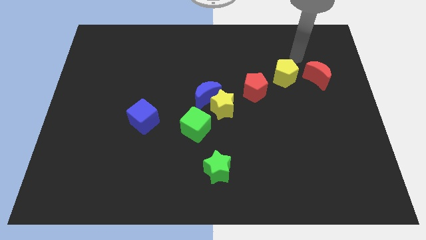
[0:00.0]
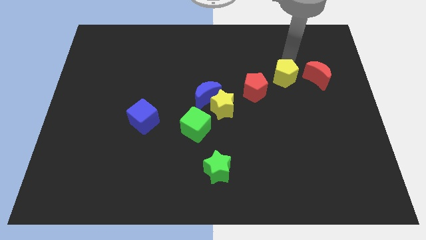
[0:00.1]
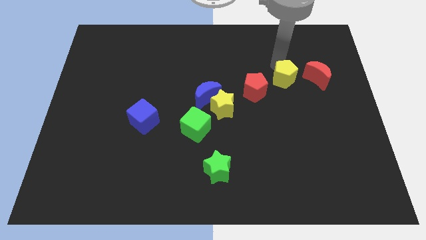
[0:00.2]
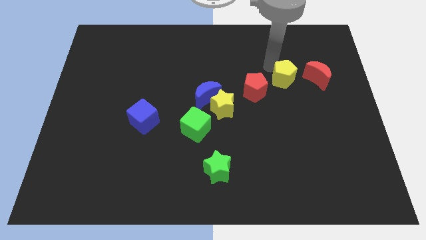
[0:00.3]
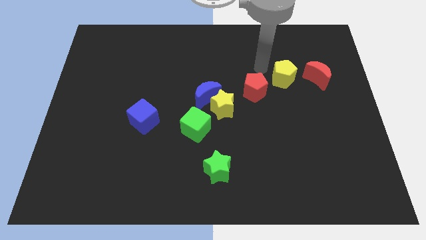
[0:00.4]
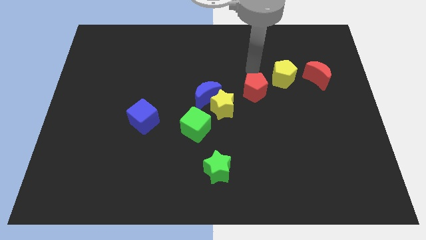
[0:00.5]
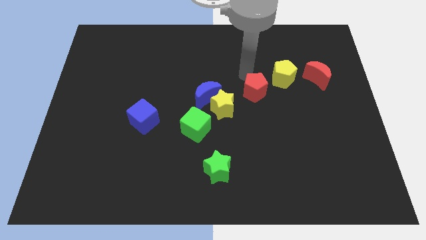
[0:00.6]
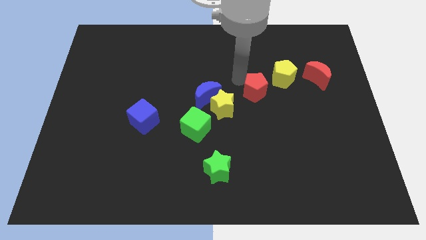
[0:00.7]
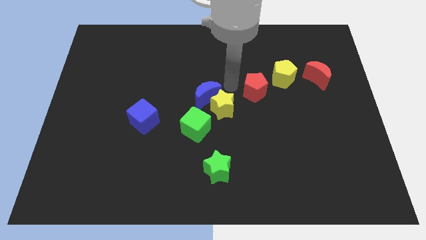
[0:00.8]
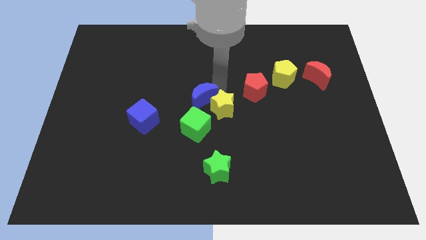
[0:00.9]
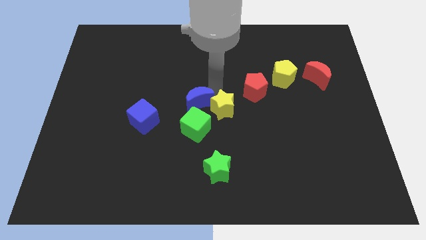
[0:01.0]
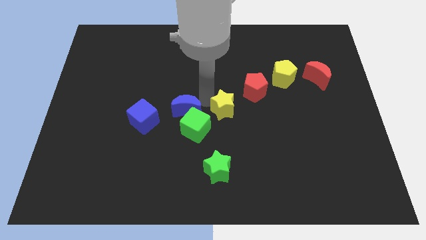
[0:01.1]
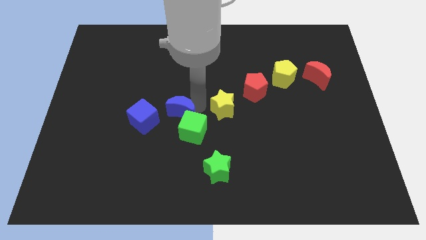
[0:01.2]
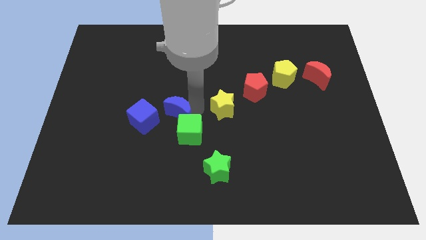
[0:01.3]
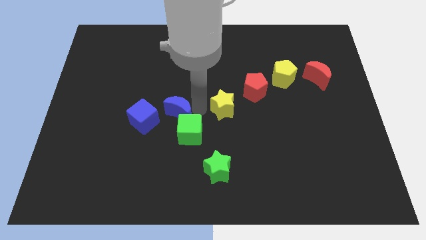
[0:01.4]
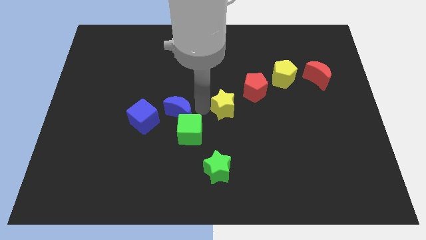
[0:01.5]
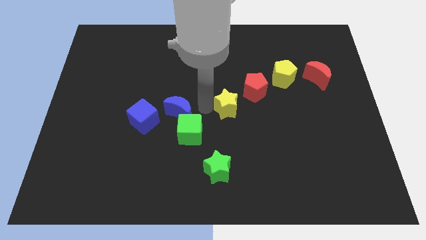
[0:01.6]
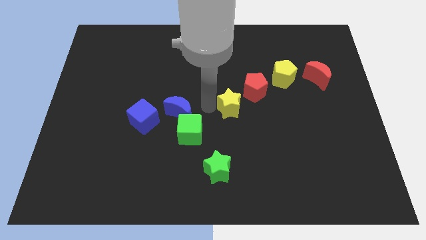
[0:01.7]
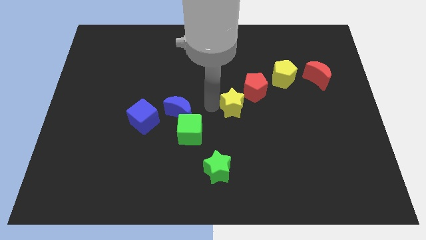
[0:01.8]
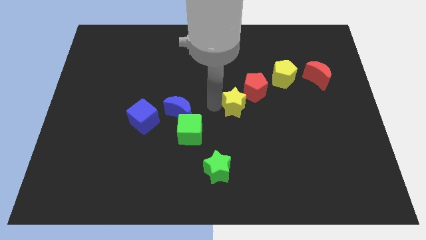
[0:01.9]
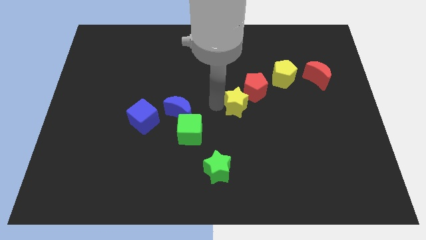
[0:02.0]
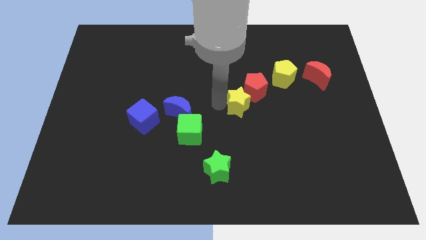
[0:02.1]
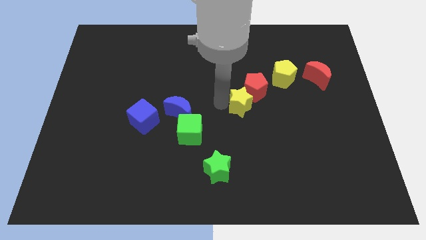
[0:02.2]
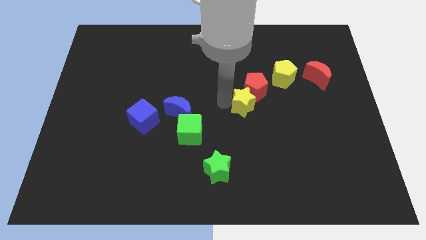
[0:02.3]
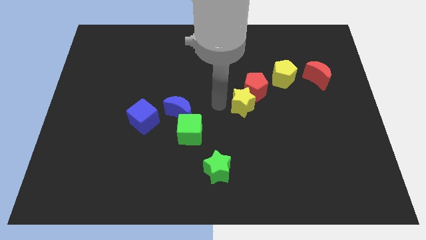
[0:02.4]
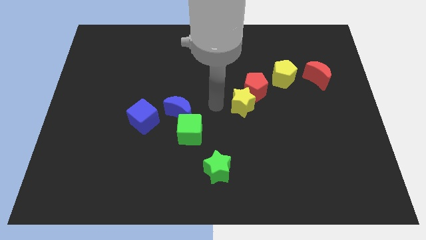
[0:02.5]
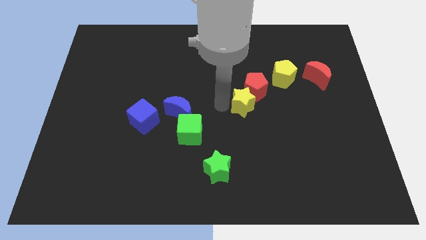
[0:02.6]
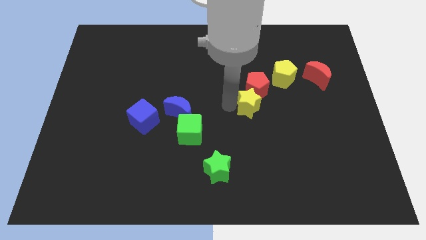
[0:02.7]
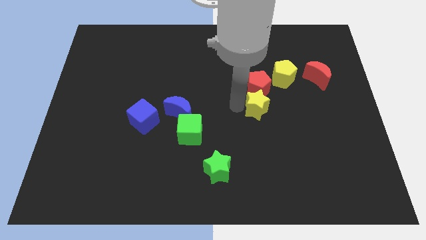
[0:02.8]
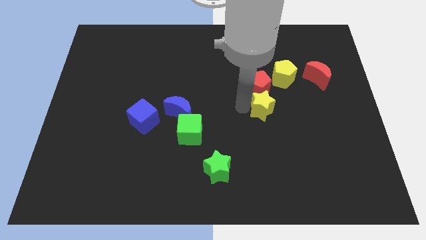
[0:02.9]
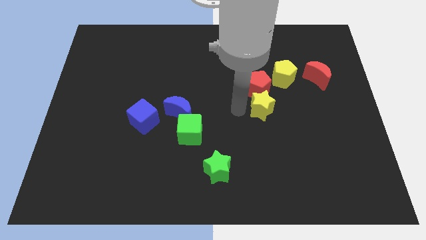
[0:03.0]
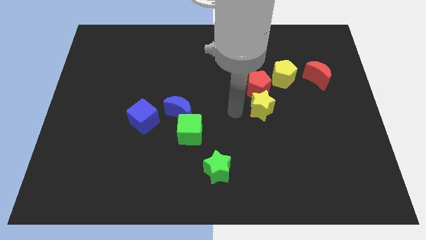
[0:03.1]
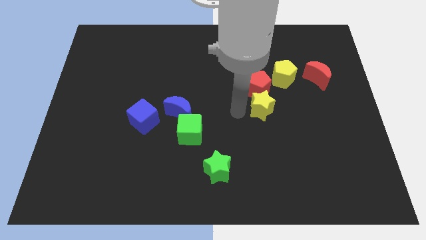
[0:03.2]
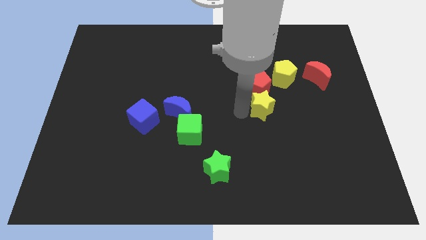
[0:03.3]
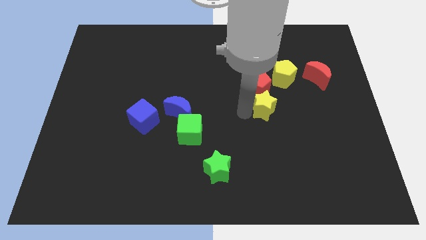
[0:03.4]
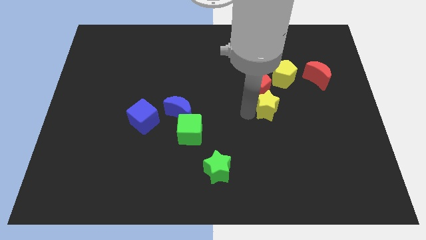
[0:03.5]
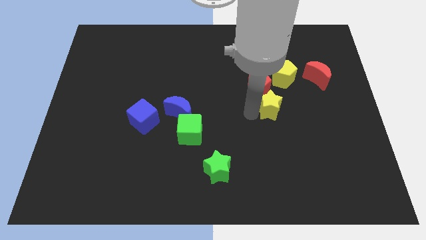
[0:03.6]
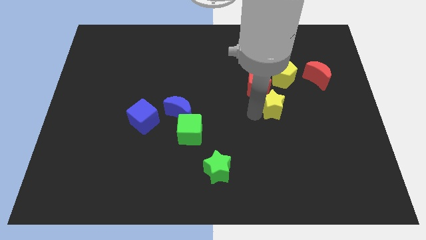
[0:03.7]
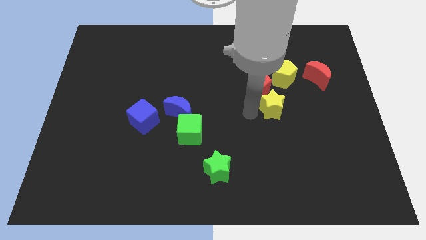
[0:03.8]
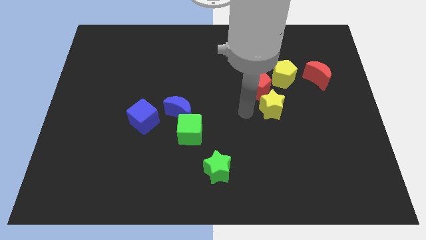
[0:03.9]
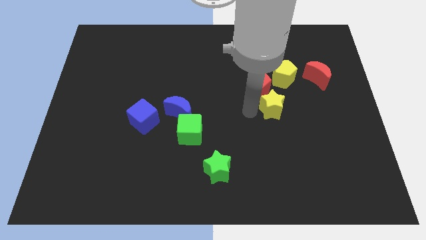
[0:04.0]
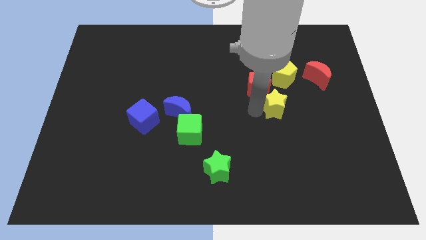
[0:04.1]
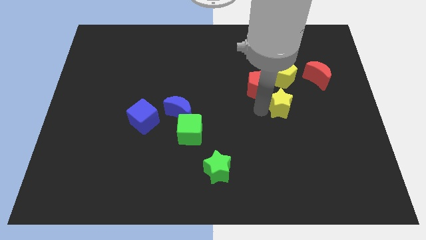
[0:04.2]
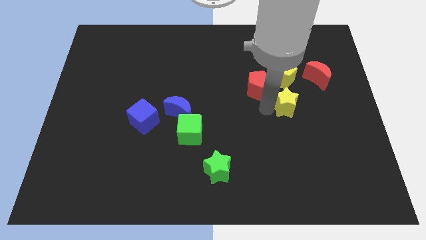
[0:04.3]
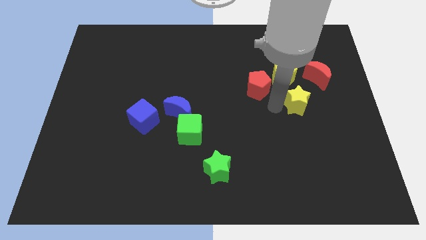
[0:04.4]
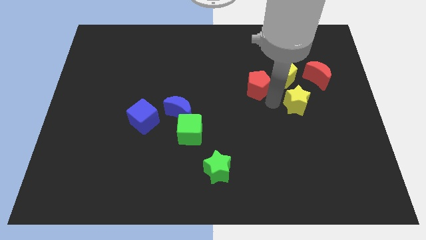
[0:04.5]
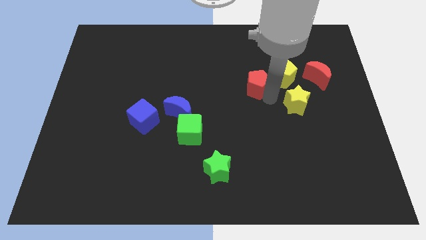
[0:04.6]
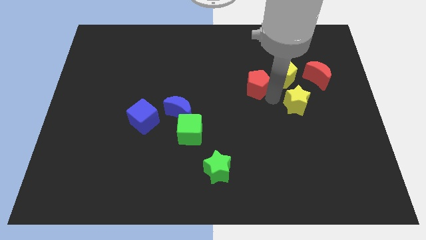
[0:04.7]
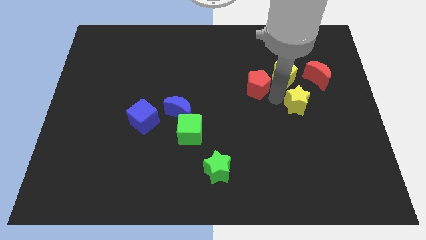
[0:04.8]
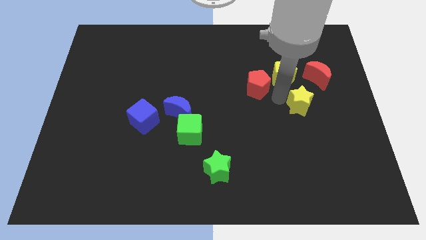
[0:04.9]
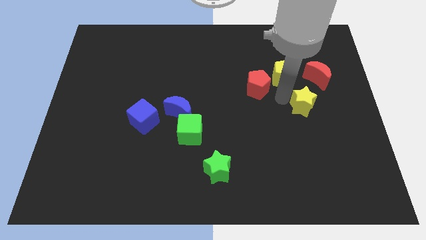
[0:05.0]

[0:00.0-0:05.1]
put the yellow star to the bottom of the red moon

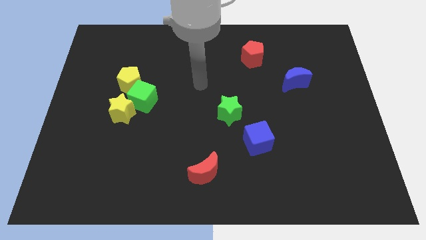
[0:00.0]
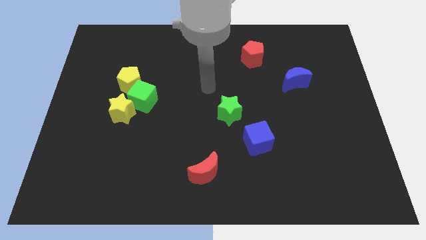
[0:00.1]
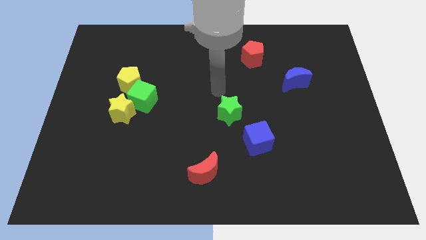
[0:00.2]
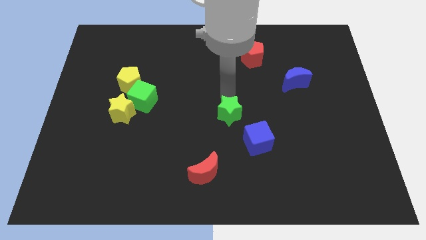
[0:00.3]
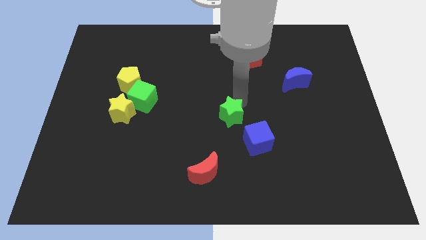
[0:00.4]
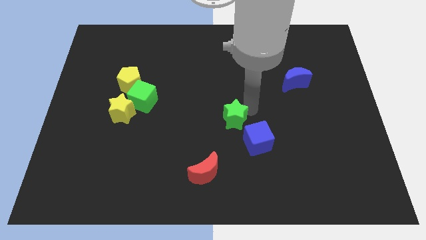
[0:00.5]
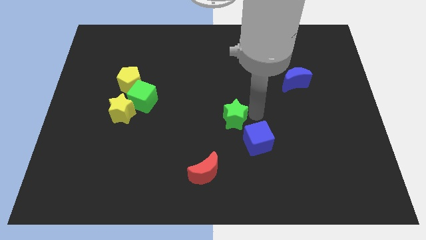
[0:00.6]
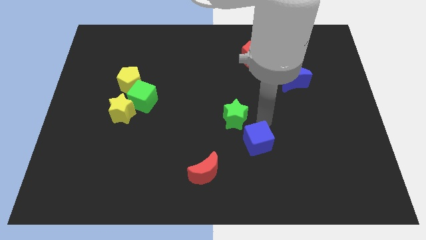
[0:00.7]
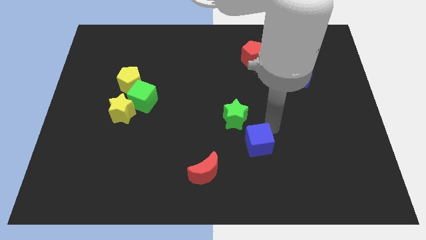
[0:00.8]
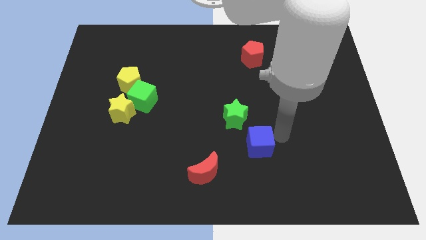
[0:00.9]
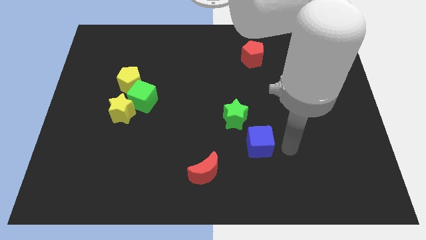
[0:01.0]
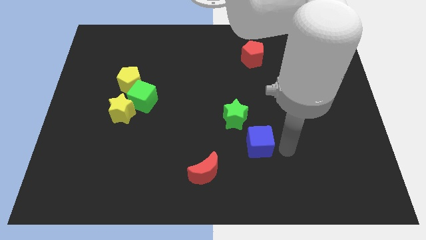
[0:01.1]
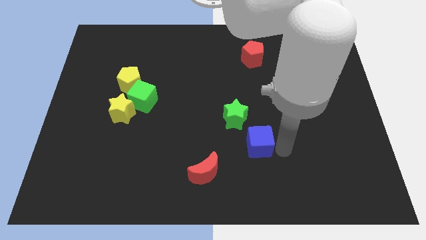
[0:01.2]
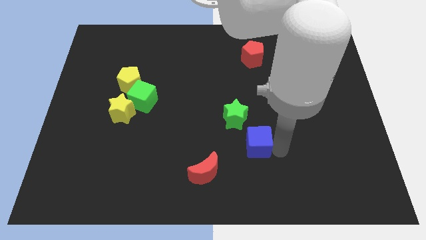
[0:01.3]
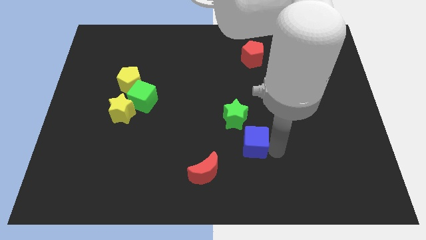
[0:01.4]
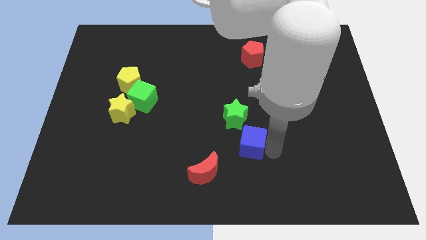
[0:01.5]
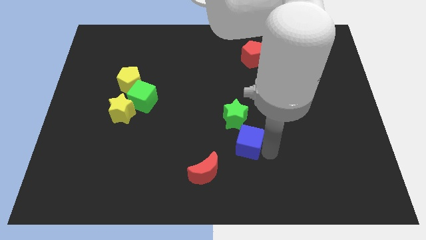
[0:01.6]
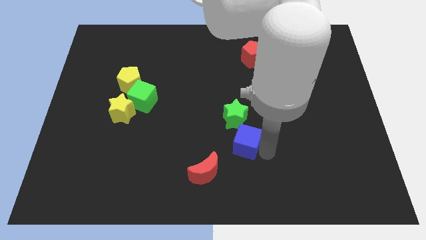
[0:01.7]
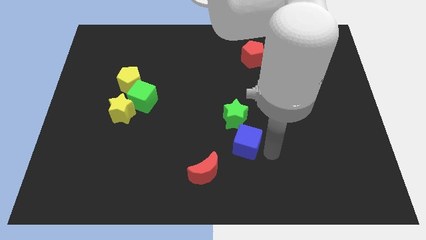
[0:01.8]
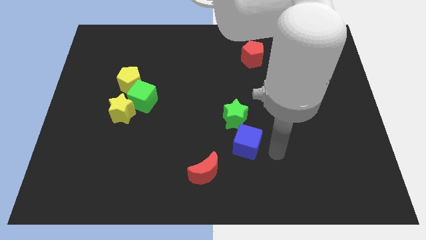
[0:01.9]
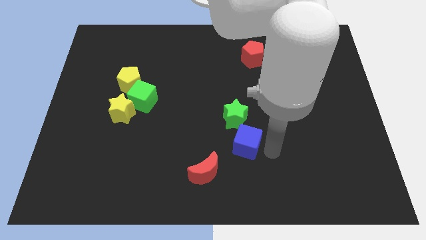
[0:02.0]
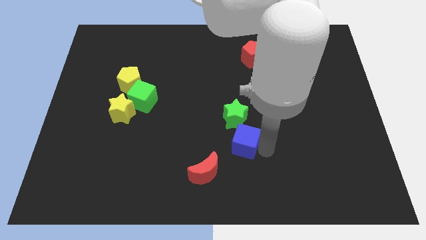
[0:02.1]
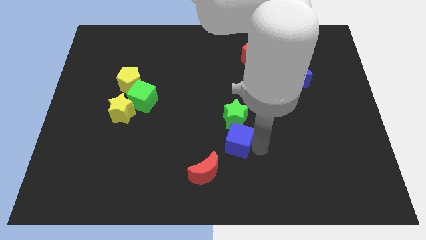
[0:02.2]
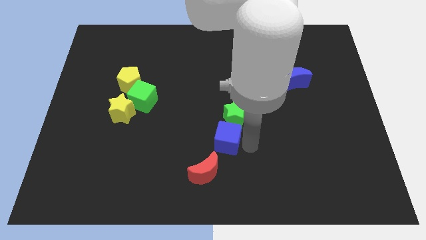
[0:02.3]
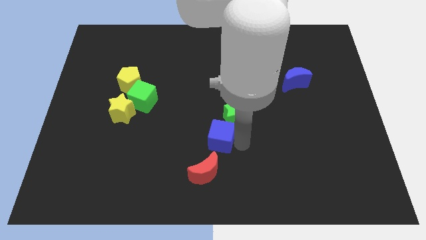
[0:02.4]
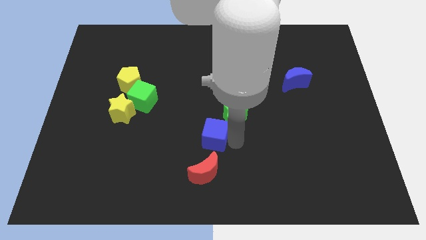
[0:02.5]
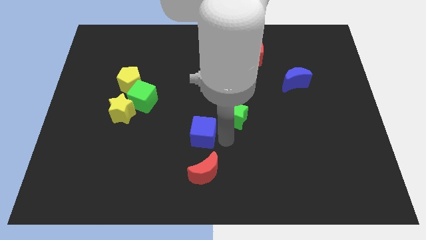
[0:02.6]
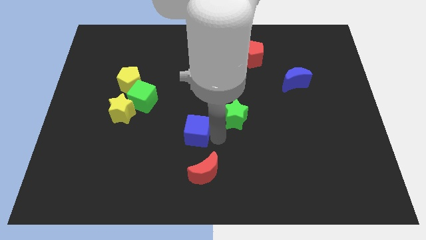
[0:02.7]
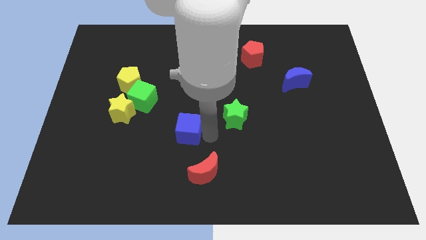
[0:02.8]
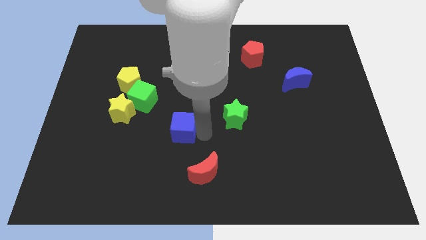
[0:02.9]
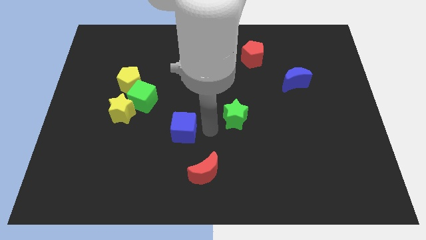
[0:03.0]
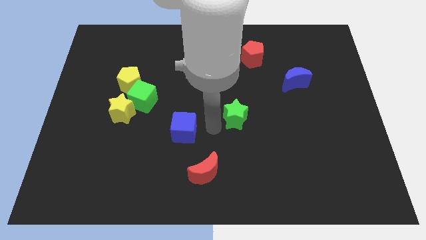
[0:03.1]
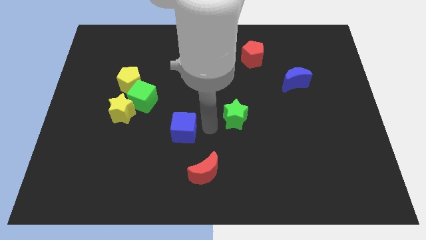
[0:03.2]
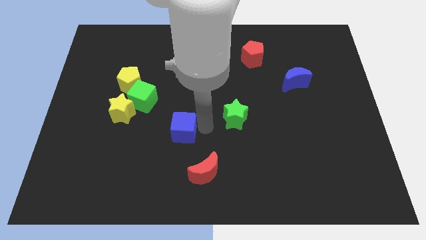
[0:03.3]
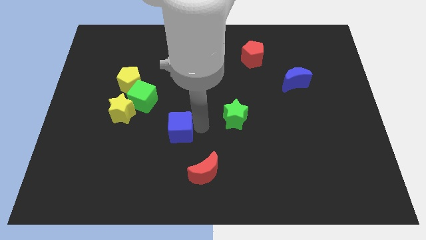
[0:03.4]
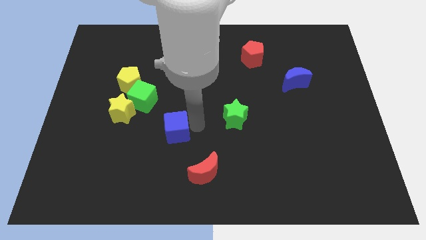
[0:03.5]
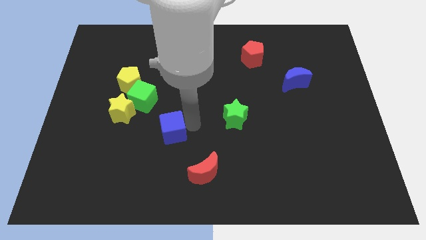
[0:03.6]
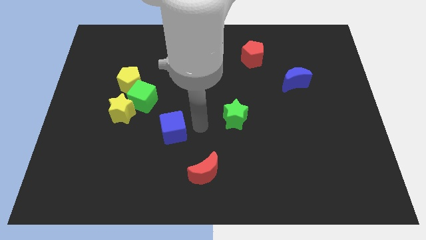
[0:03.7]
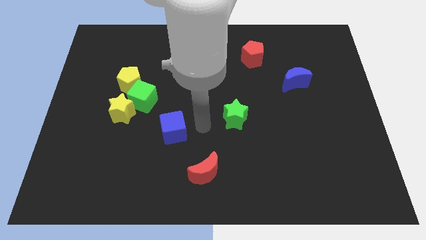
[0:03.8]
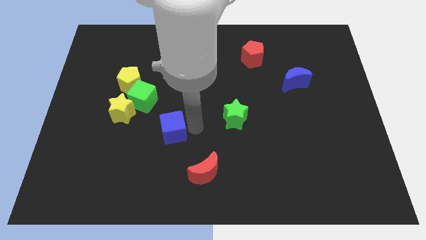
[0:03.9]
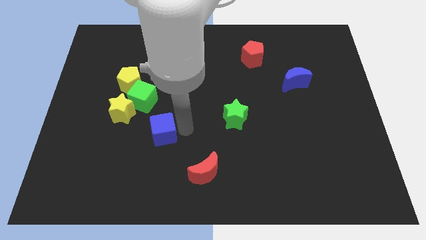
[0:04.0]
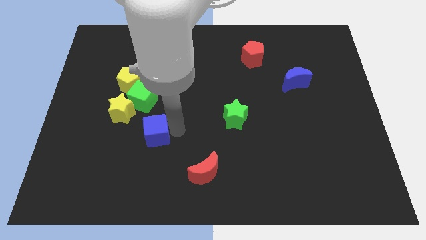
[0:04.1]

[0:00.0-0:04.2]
move the blue cube below the green cube
